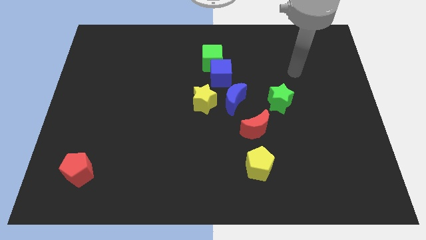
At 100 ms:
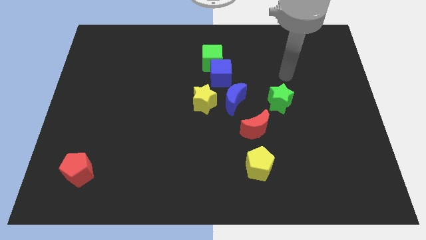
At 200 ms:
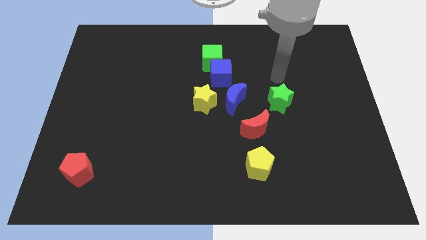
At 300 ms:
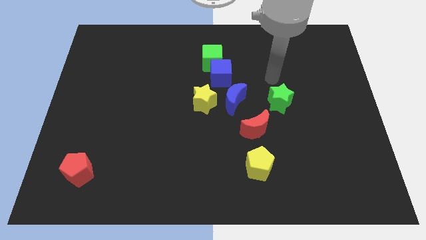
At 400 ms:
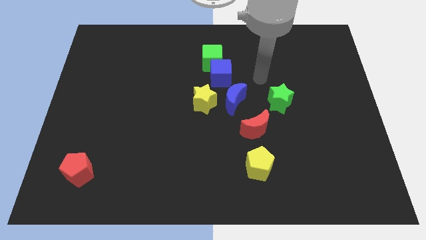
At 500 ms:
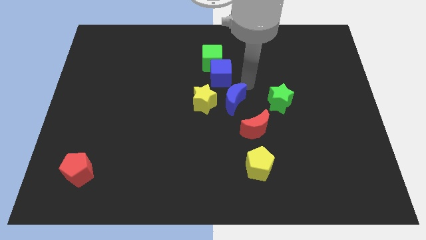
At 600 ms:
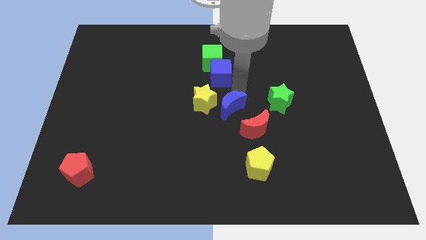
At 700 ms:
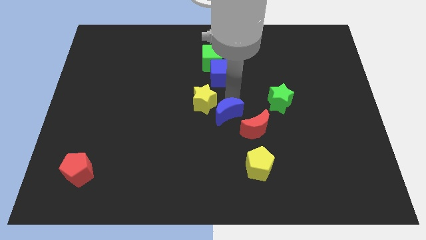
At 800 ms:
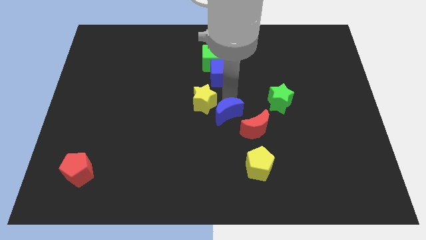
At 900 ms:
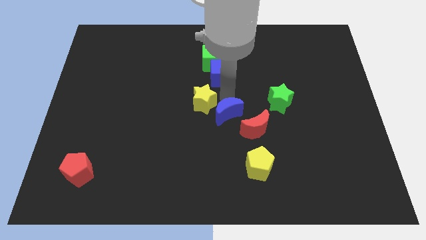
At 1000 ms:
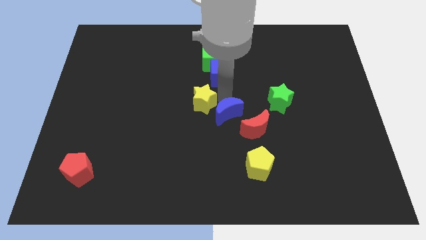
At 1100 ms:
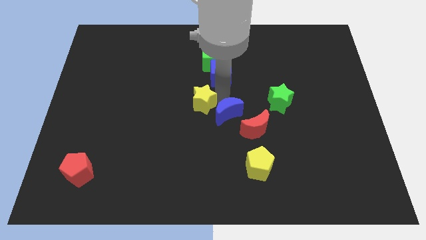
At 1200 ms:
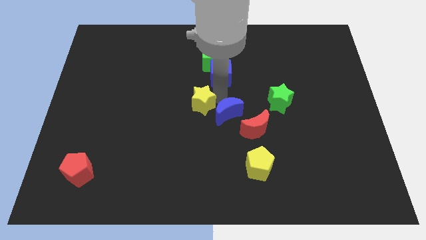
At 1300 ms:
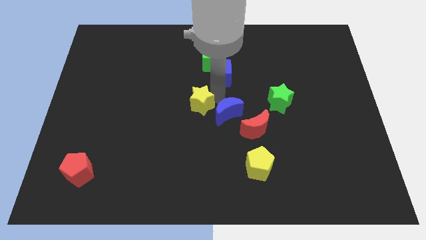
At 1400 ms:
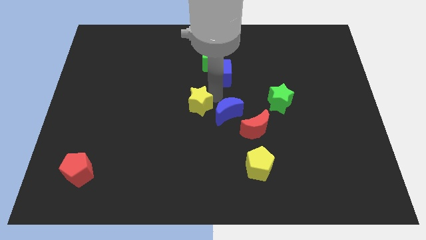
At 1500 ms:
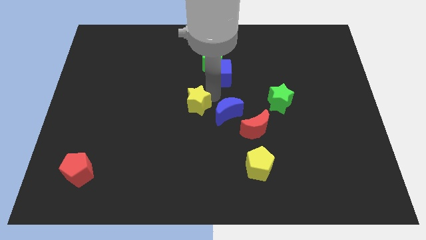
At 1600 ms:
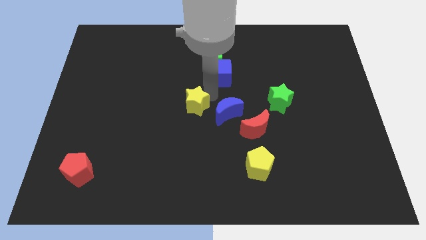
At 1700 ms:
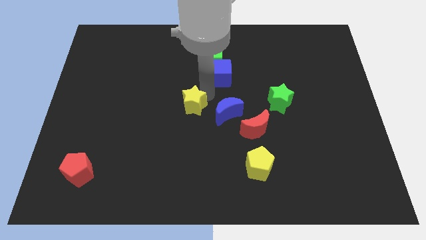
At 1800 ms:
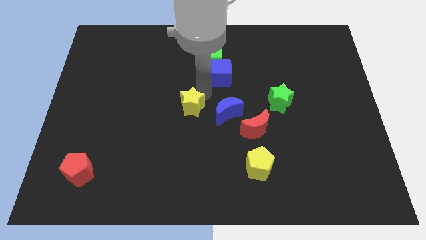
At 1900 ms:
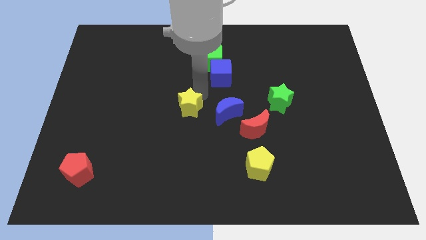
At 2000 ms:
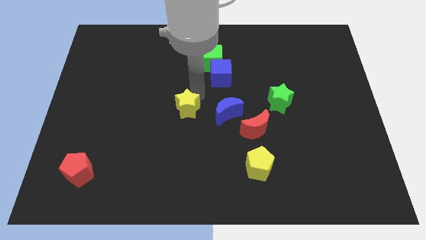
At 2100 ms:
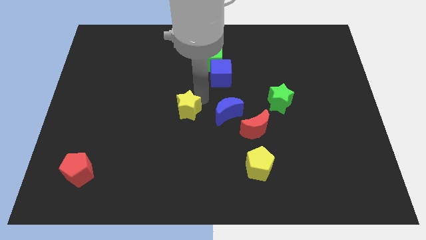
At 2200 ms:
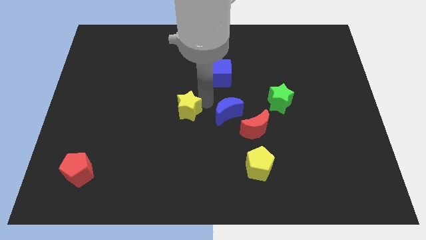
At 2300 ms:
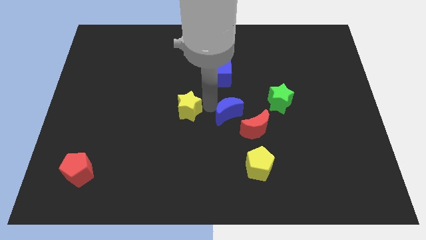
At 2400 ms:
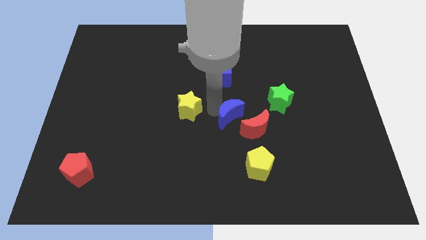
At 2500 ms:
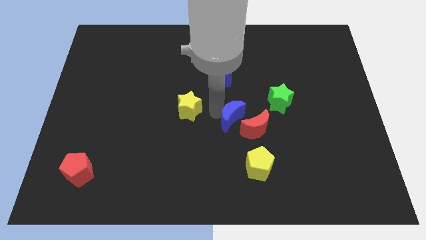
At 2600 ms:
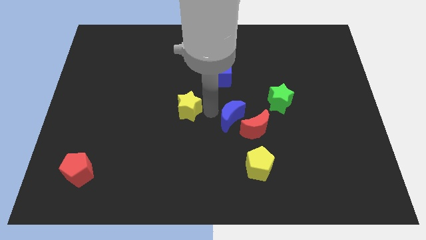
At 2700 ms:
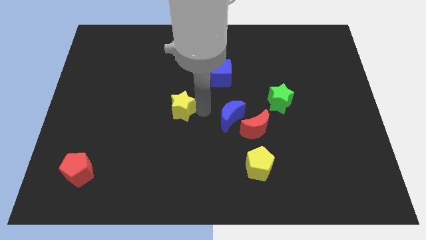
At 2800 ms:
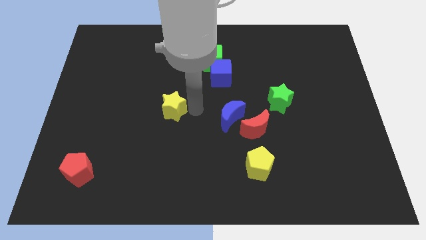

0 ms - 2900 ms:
push the yellow star left a little

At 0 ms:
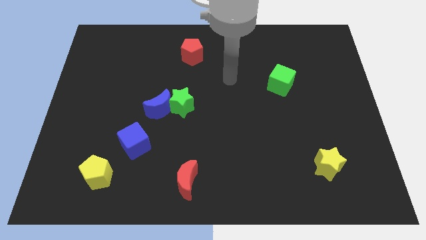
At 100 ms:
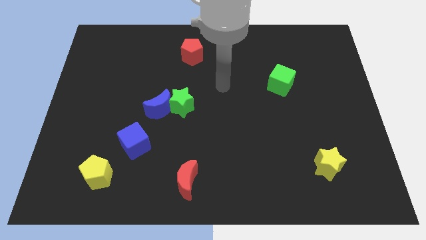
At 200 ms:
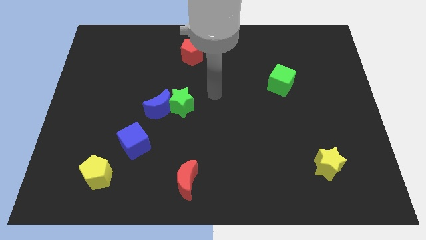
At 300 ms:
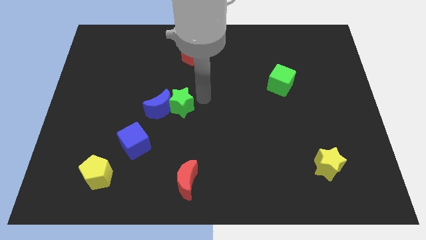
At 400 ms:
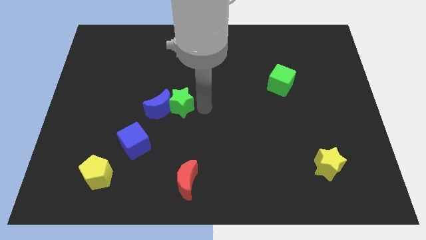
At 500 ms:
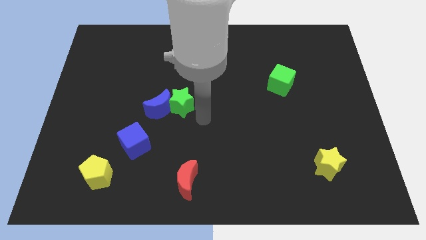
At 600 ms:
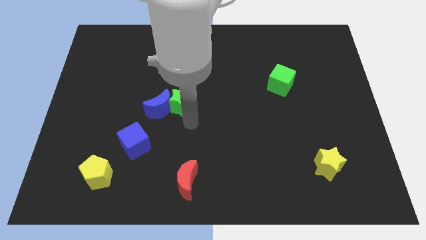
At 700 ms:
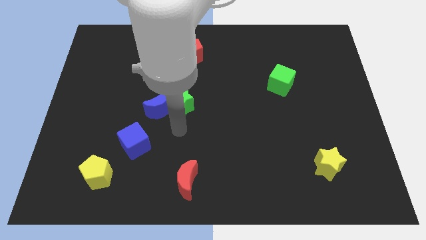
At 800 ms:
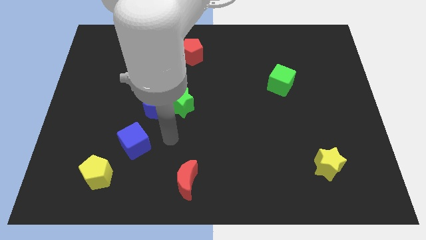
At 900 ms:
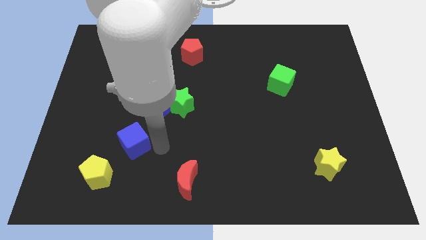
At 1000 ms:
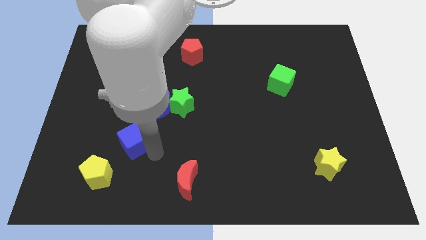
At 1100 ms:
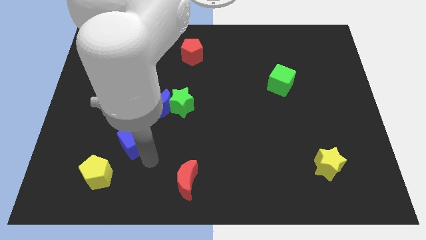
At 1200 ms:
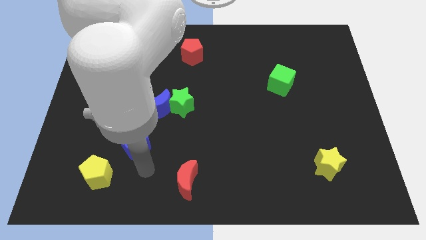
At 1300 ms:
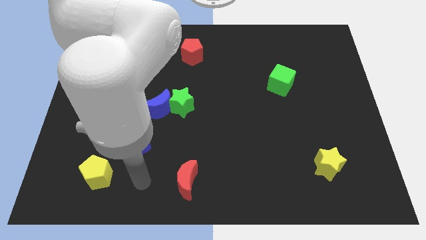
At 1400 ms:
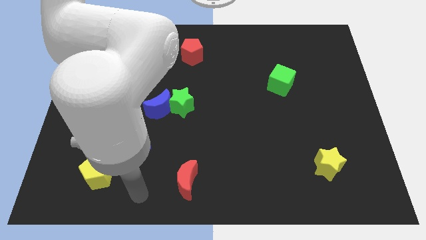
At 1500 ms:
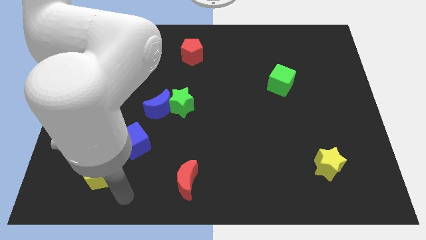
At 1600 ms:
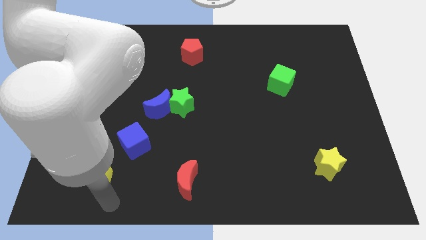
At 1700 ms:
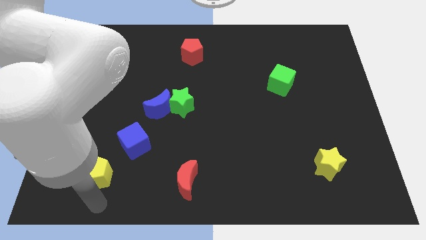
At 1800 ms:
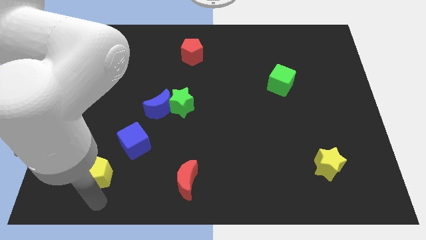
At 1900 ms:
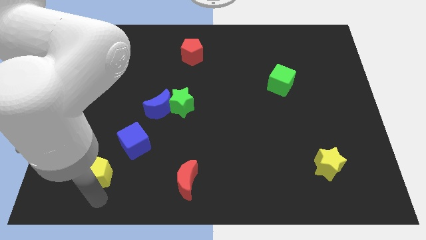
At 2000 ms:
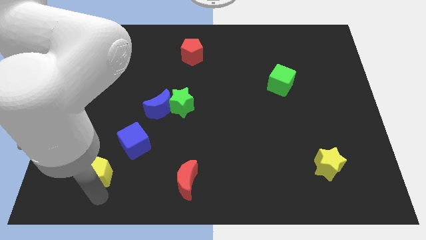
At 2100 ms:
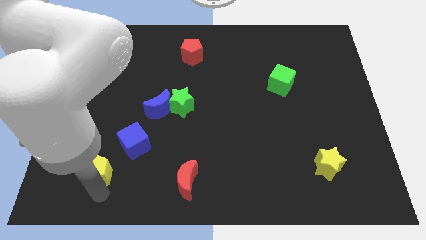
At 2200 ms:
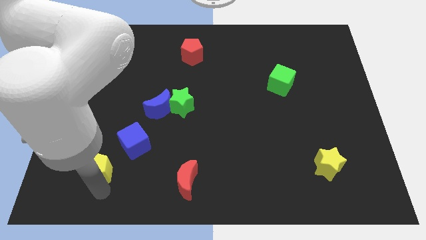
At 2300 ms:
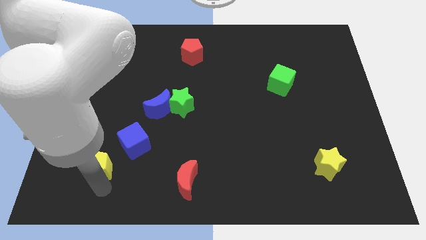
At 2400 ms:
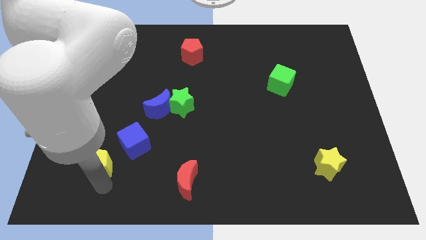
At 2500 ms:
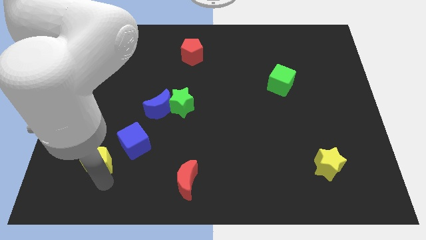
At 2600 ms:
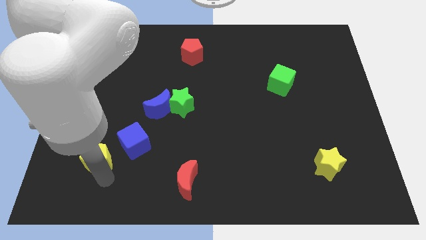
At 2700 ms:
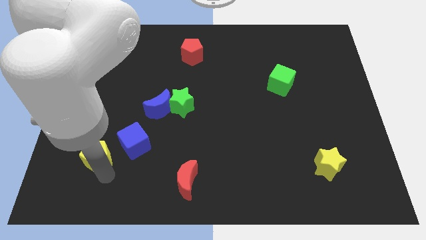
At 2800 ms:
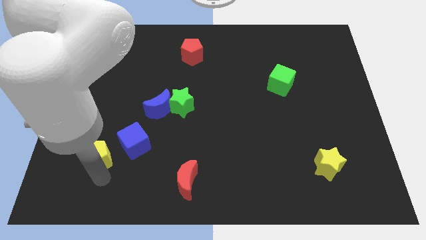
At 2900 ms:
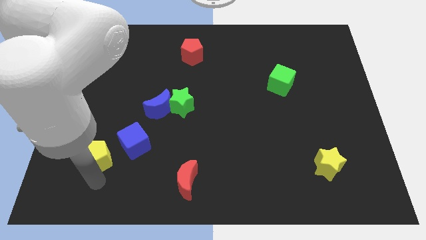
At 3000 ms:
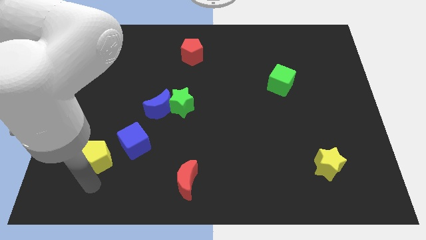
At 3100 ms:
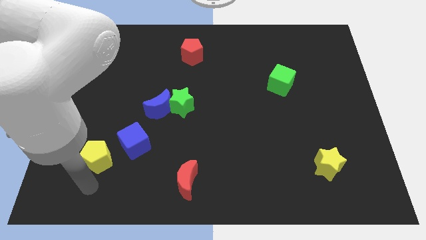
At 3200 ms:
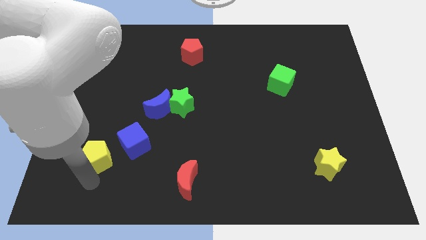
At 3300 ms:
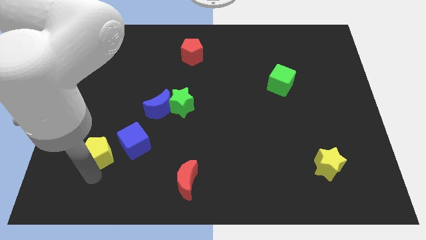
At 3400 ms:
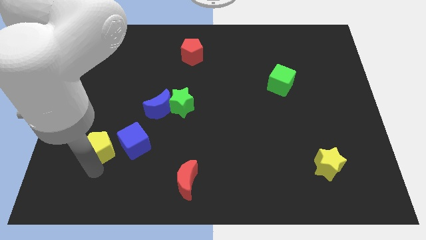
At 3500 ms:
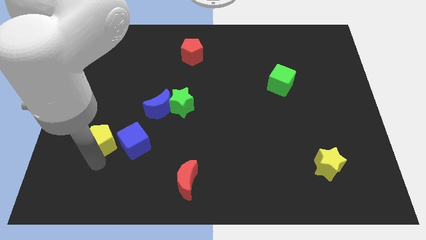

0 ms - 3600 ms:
push the yellow pentagon up a little bit

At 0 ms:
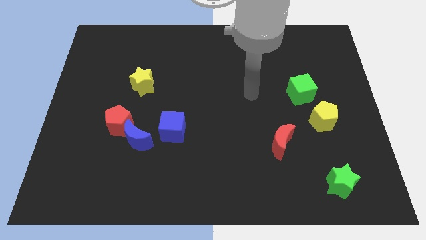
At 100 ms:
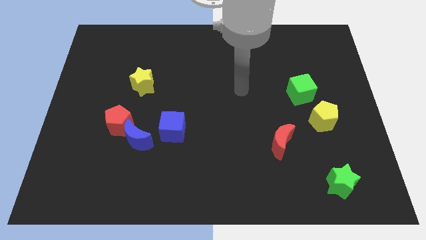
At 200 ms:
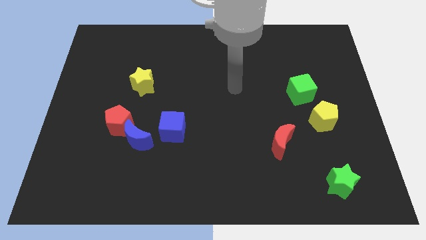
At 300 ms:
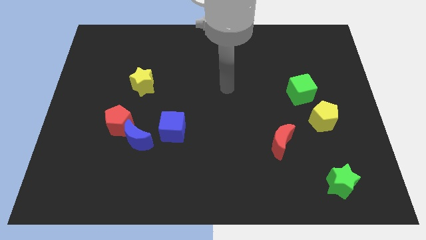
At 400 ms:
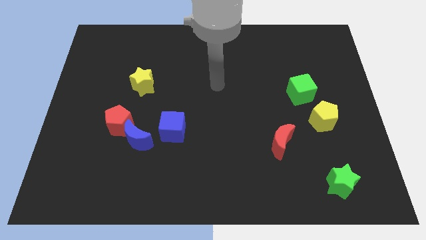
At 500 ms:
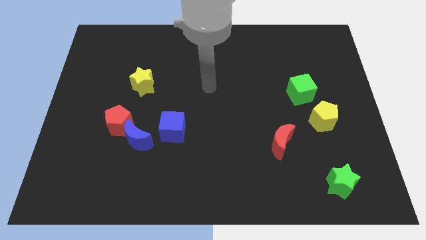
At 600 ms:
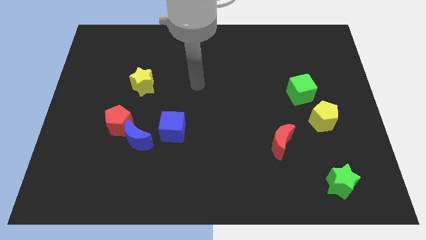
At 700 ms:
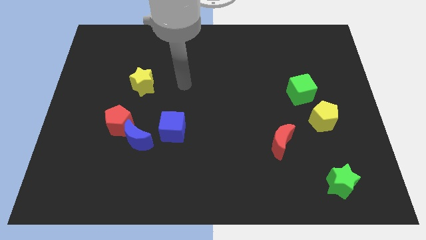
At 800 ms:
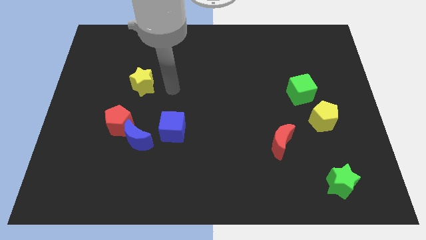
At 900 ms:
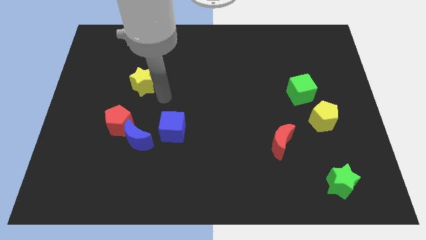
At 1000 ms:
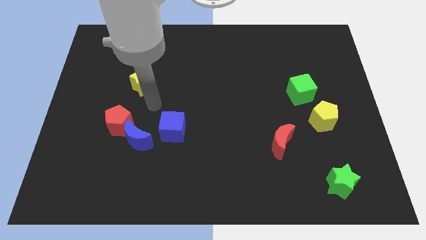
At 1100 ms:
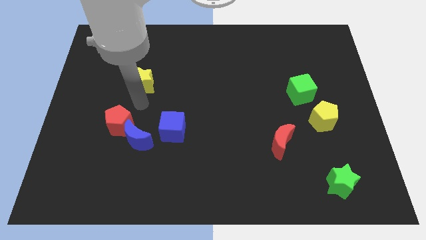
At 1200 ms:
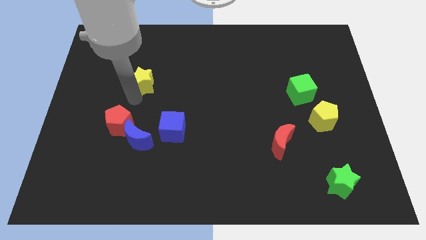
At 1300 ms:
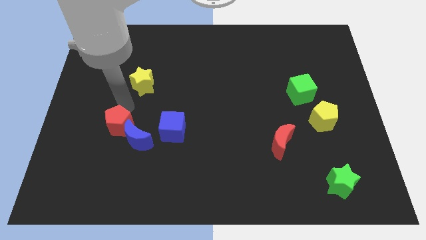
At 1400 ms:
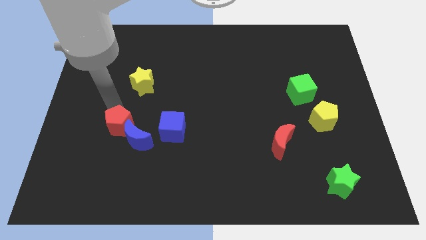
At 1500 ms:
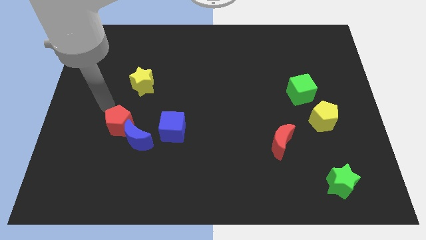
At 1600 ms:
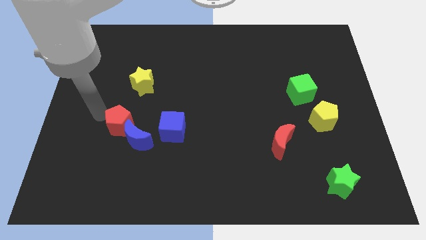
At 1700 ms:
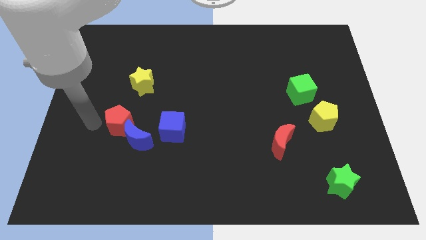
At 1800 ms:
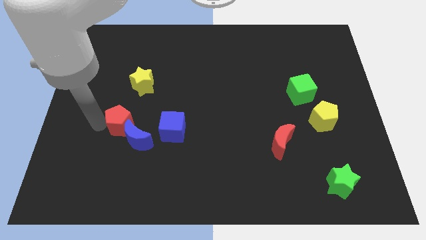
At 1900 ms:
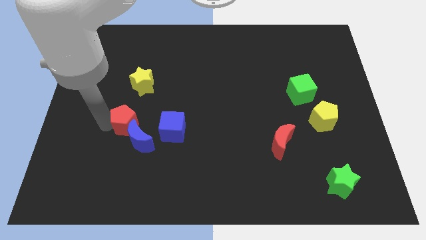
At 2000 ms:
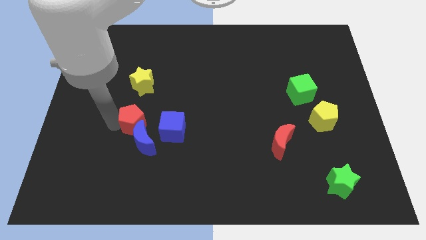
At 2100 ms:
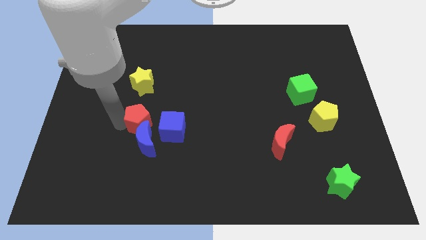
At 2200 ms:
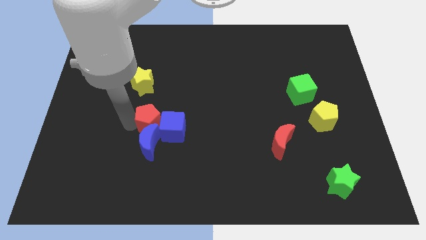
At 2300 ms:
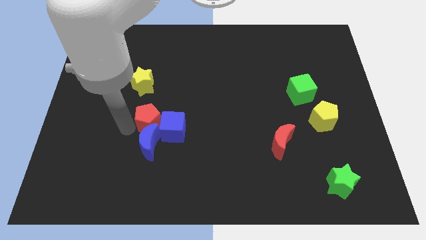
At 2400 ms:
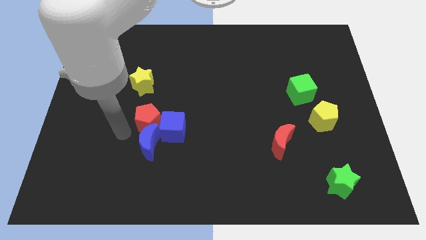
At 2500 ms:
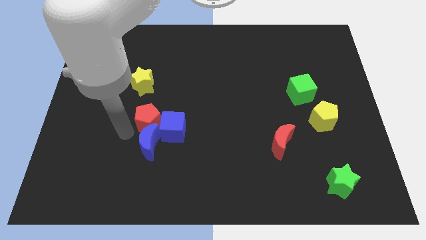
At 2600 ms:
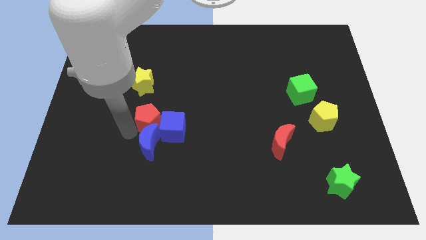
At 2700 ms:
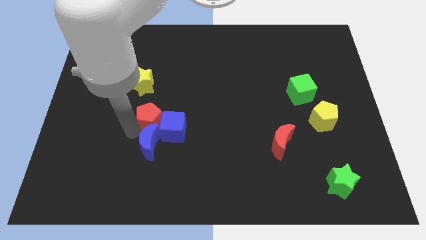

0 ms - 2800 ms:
slightly move the red pentagon right
